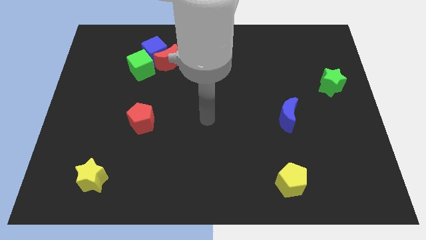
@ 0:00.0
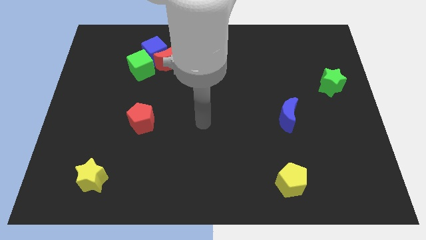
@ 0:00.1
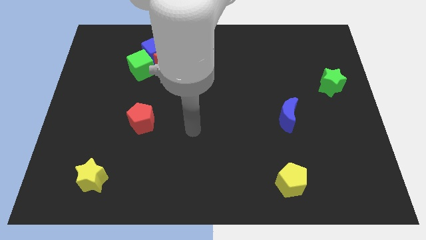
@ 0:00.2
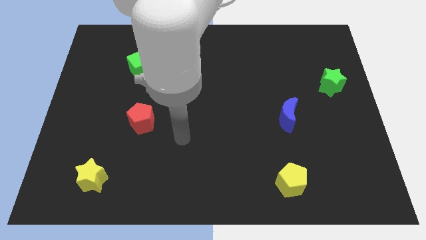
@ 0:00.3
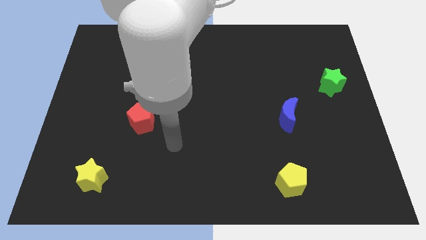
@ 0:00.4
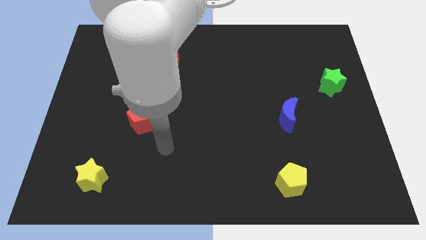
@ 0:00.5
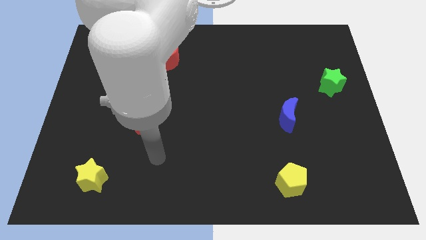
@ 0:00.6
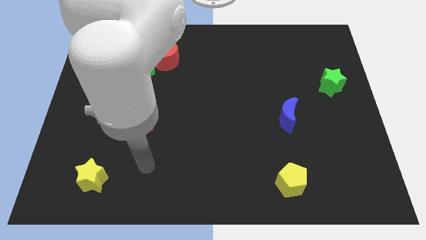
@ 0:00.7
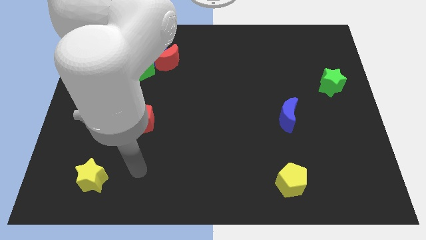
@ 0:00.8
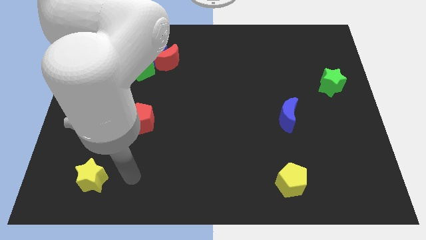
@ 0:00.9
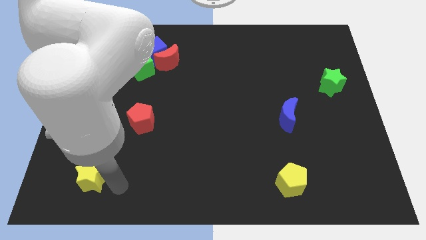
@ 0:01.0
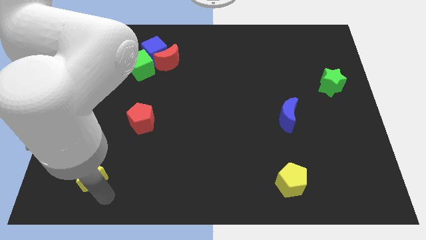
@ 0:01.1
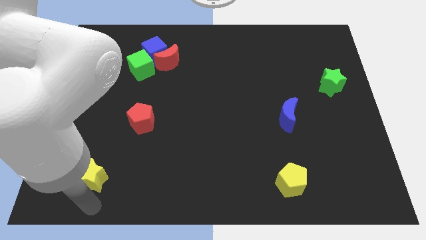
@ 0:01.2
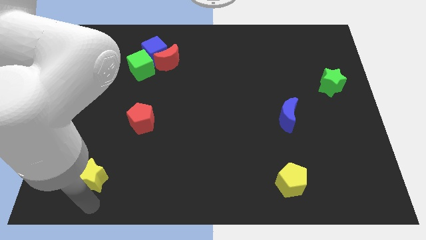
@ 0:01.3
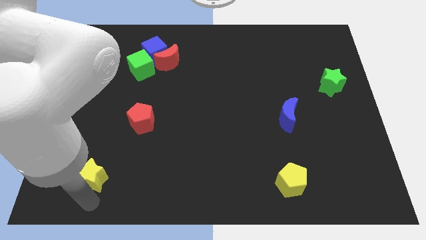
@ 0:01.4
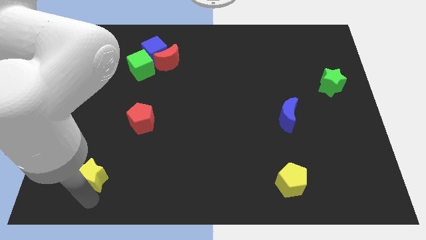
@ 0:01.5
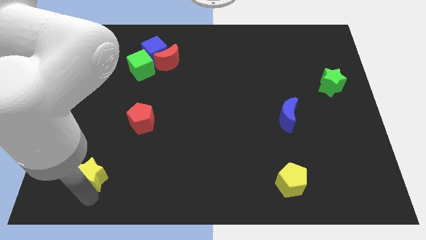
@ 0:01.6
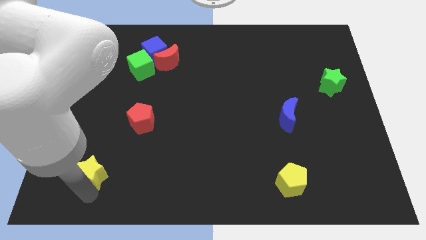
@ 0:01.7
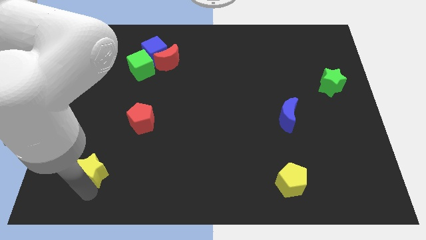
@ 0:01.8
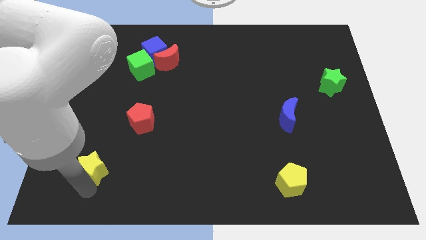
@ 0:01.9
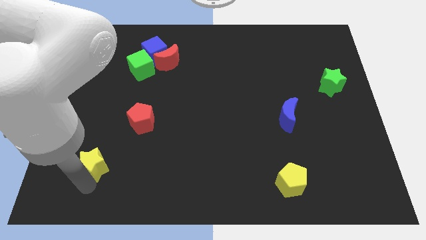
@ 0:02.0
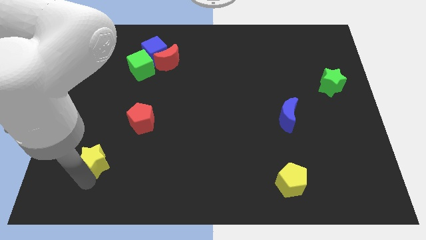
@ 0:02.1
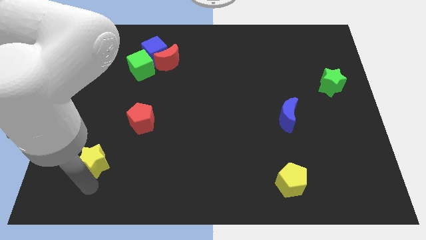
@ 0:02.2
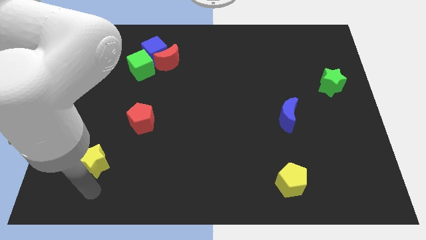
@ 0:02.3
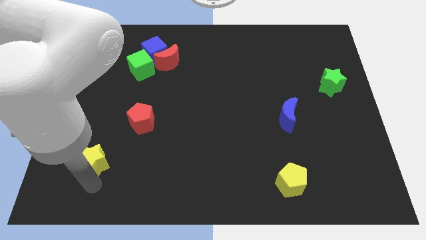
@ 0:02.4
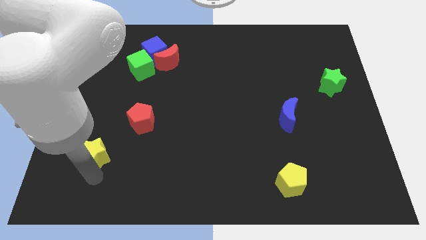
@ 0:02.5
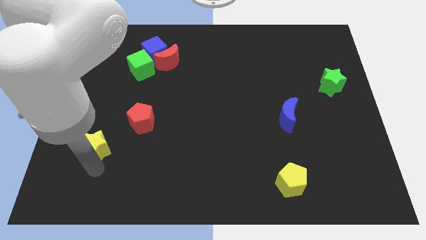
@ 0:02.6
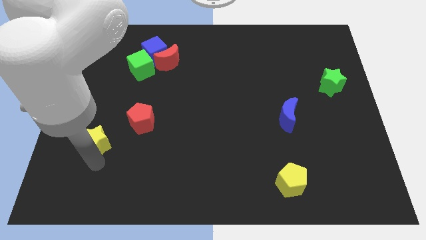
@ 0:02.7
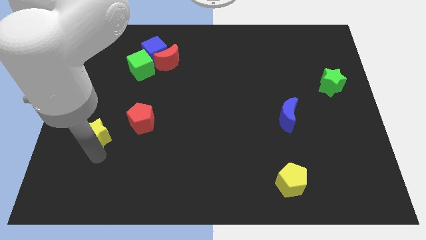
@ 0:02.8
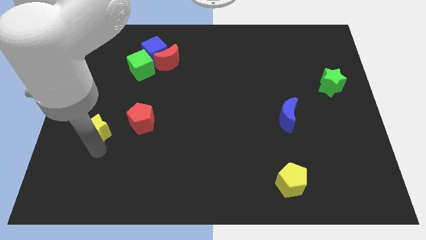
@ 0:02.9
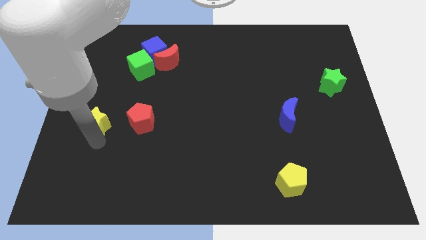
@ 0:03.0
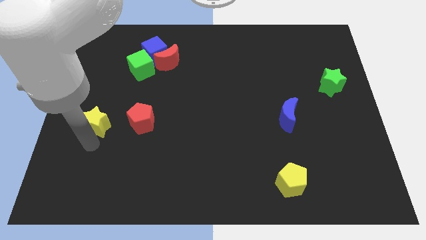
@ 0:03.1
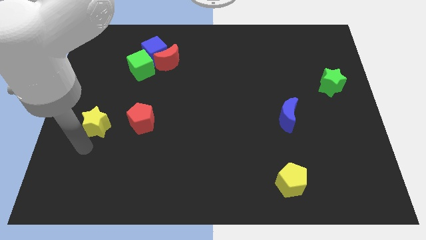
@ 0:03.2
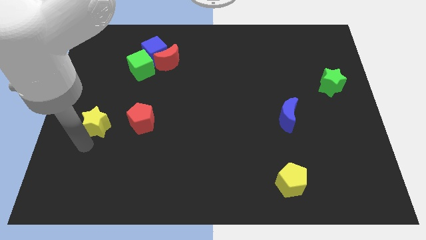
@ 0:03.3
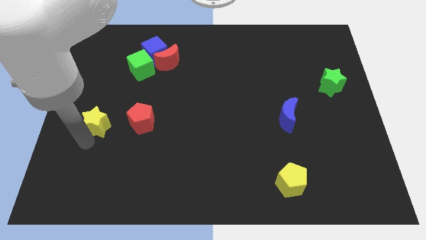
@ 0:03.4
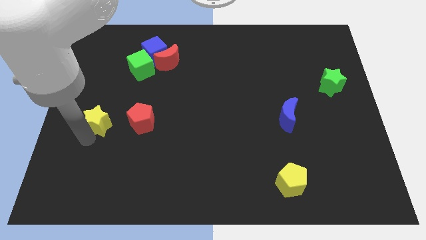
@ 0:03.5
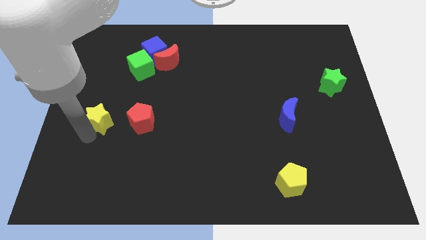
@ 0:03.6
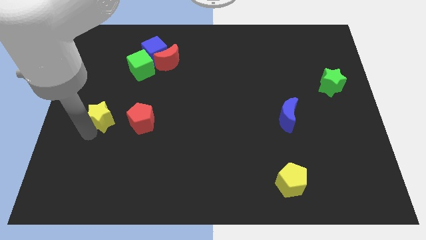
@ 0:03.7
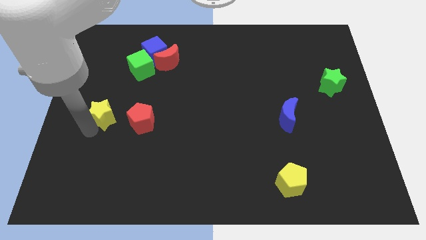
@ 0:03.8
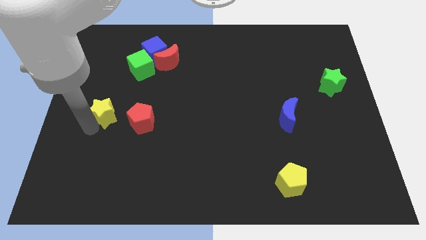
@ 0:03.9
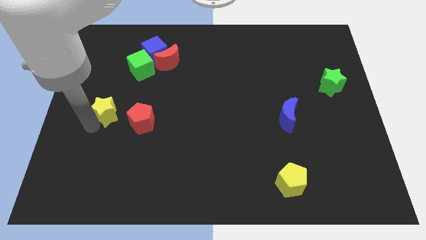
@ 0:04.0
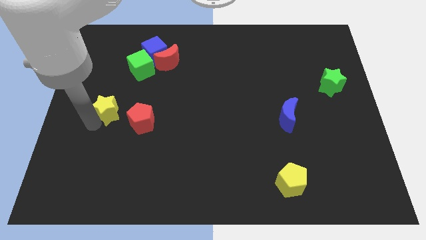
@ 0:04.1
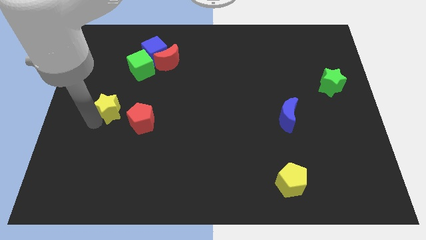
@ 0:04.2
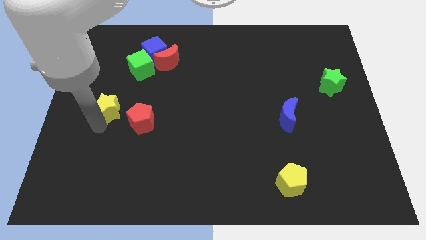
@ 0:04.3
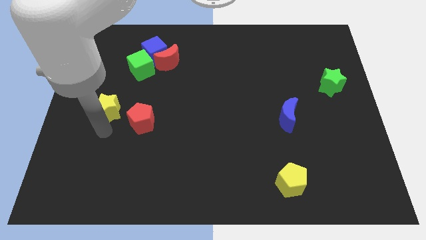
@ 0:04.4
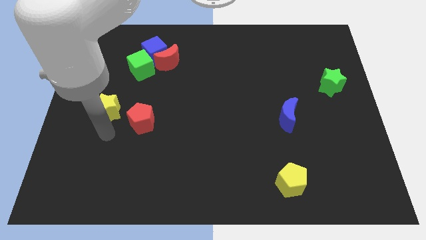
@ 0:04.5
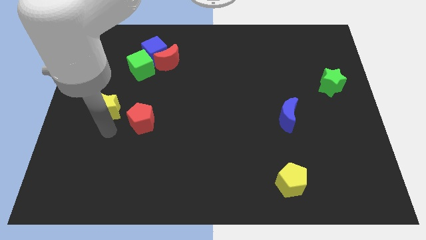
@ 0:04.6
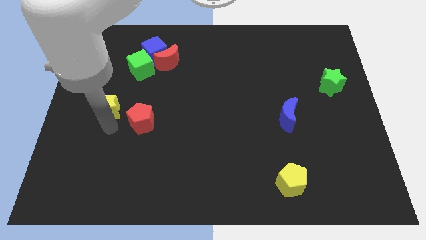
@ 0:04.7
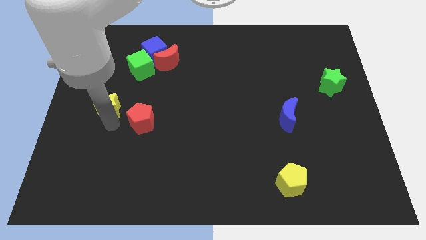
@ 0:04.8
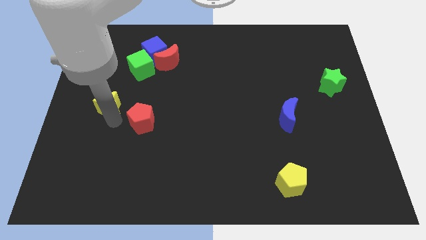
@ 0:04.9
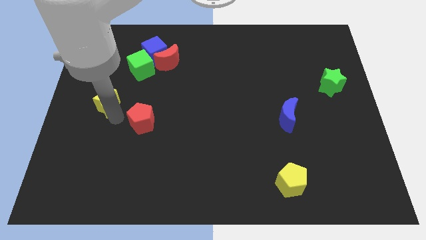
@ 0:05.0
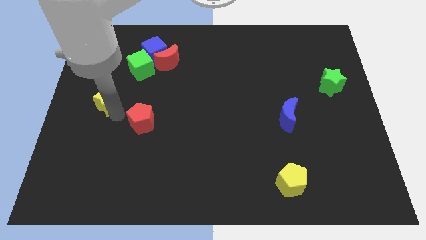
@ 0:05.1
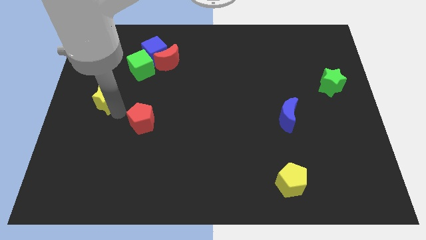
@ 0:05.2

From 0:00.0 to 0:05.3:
slide the yellow star upwards

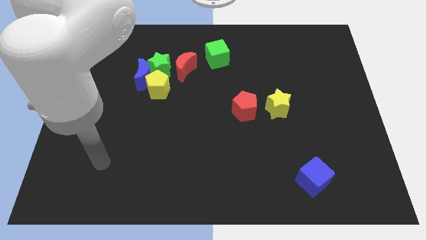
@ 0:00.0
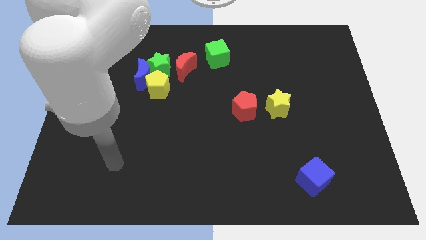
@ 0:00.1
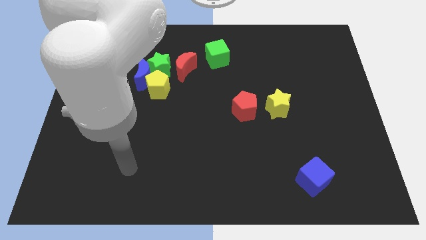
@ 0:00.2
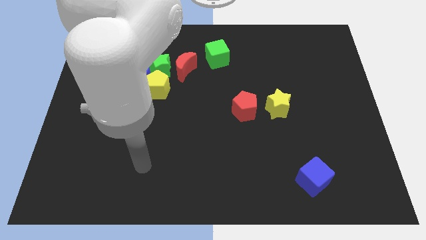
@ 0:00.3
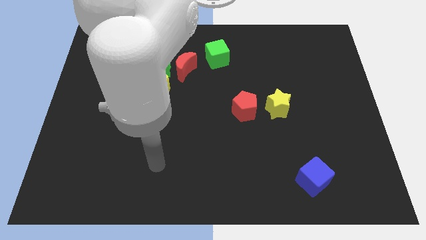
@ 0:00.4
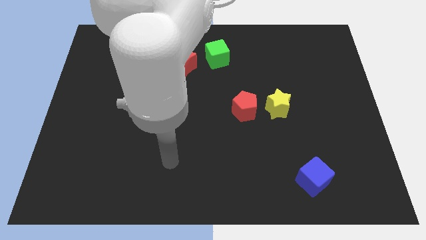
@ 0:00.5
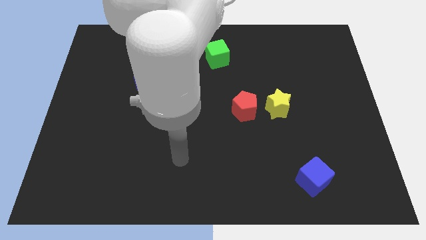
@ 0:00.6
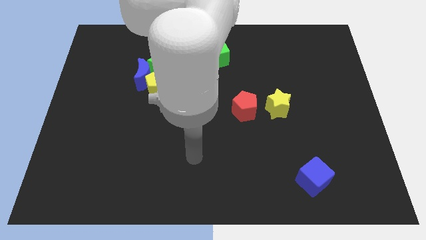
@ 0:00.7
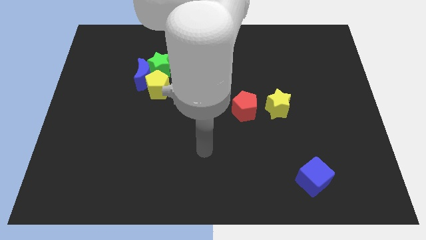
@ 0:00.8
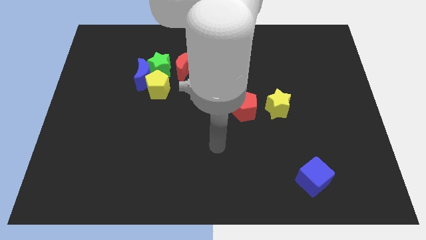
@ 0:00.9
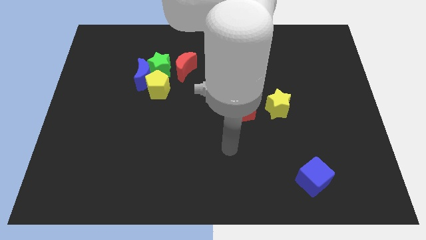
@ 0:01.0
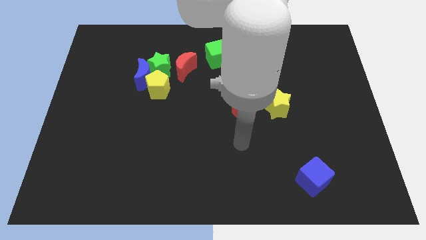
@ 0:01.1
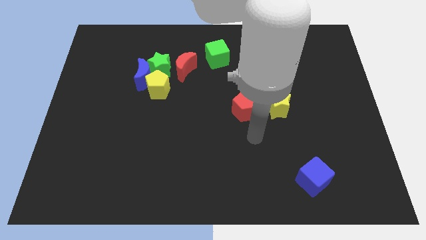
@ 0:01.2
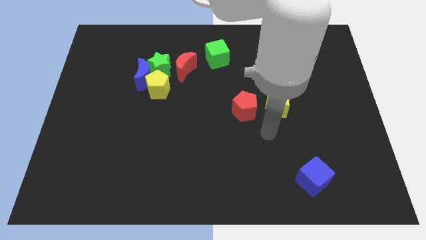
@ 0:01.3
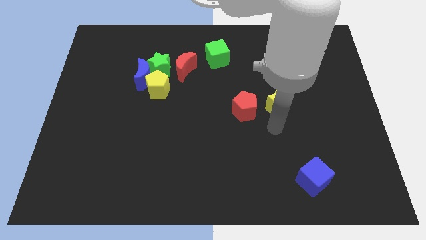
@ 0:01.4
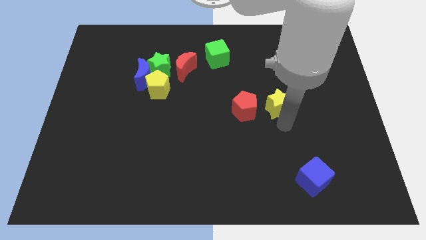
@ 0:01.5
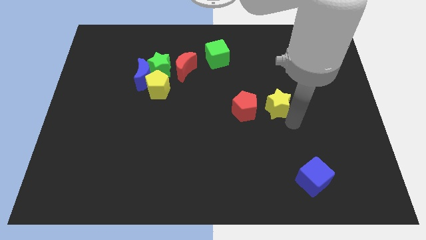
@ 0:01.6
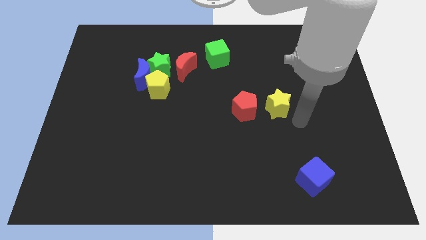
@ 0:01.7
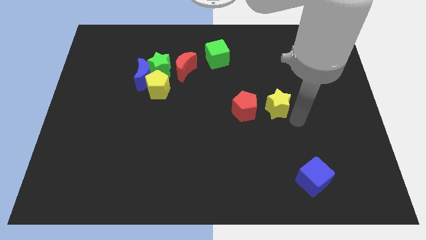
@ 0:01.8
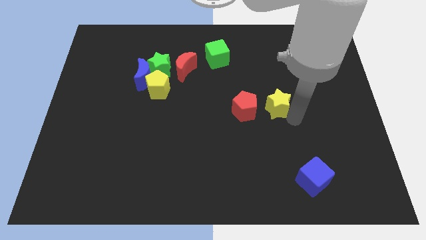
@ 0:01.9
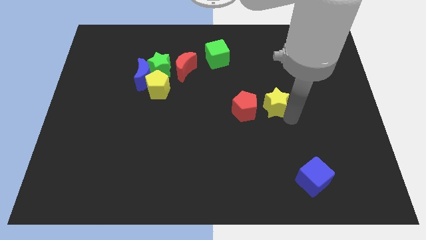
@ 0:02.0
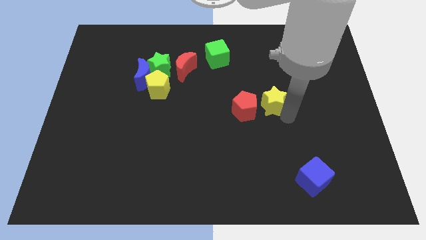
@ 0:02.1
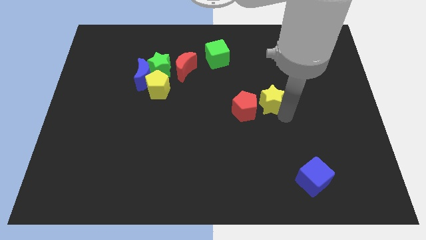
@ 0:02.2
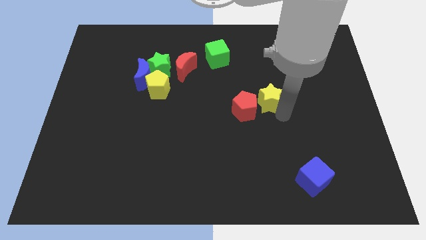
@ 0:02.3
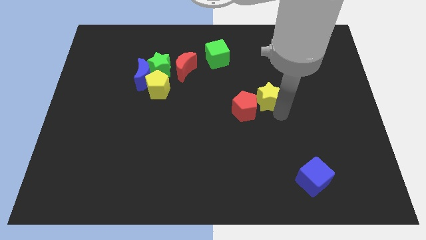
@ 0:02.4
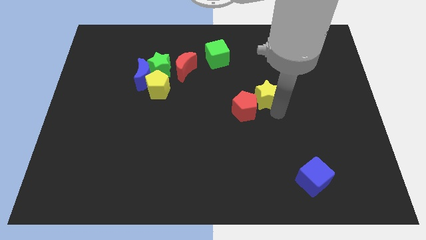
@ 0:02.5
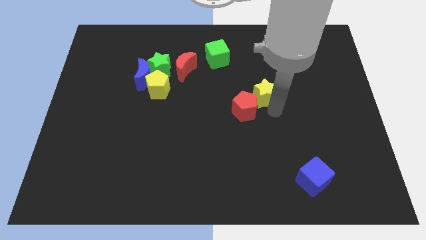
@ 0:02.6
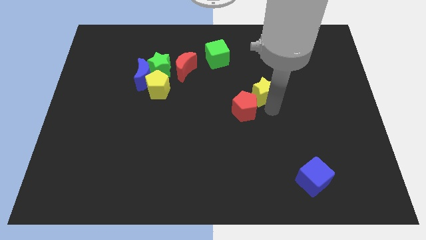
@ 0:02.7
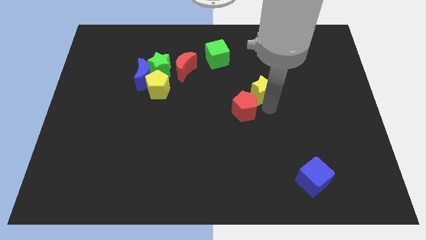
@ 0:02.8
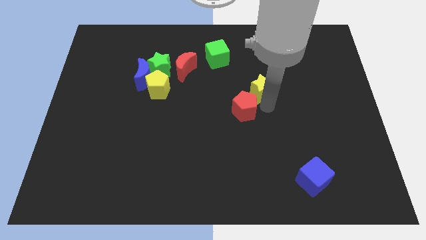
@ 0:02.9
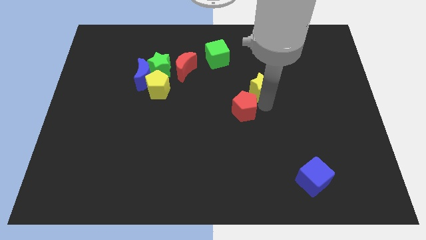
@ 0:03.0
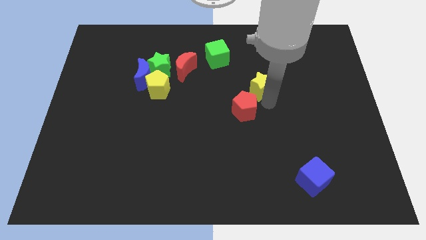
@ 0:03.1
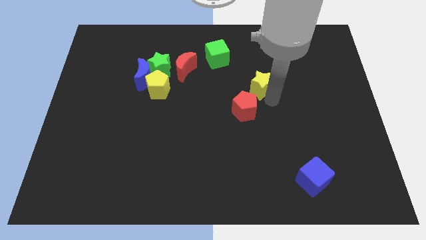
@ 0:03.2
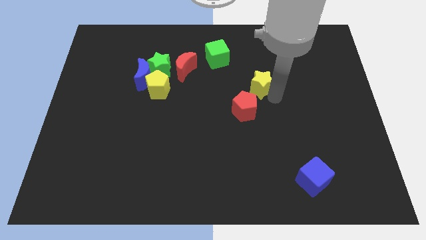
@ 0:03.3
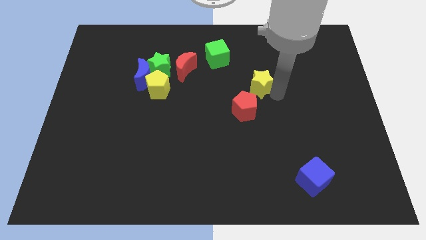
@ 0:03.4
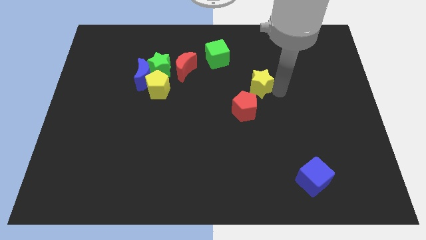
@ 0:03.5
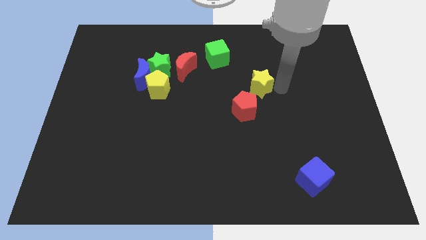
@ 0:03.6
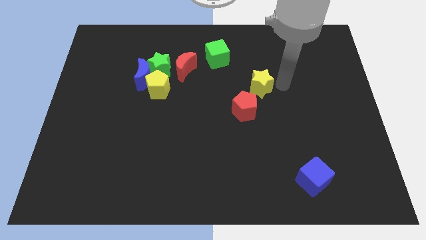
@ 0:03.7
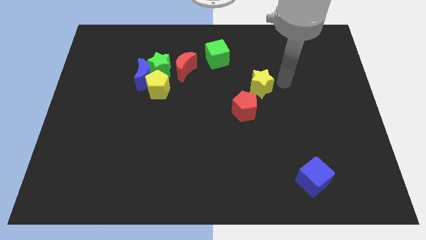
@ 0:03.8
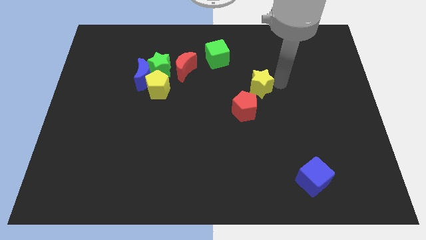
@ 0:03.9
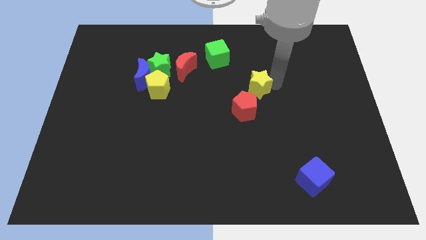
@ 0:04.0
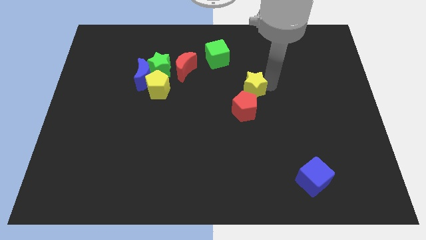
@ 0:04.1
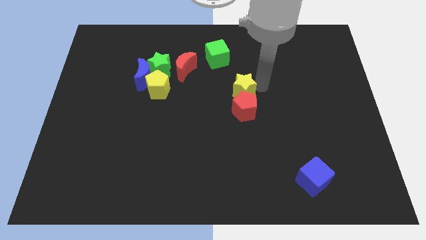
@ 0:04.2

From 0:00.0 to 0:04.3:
move the yellow star somewhat left
